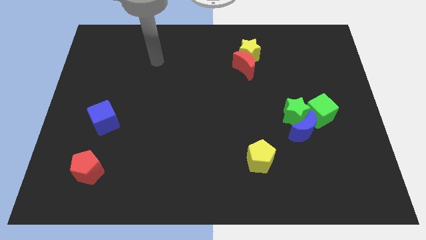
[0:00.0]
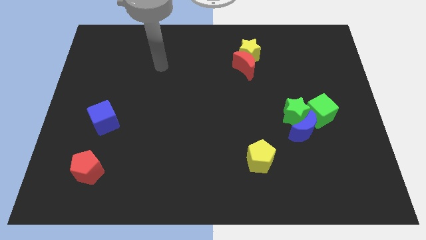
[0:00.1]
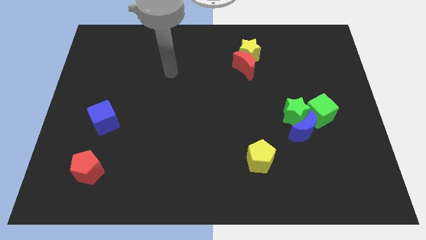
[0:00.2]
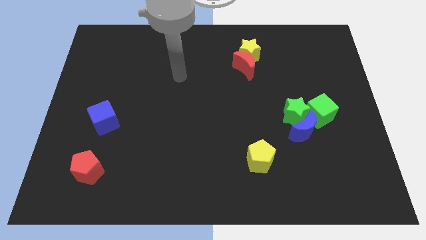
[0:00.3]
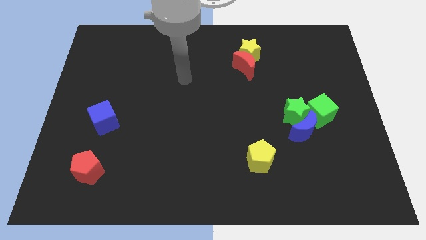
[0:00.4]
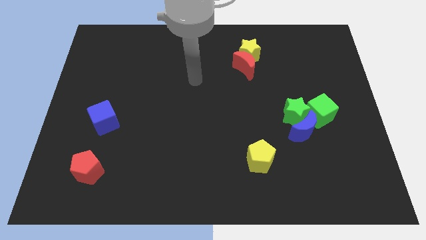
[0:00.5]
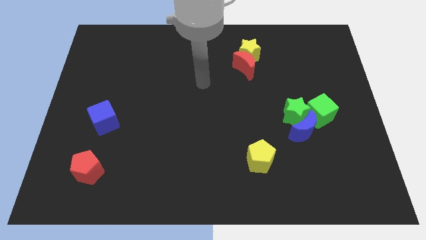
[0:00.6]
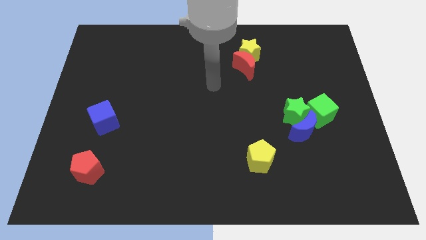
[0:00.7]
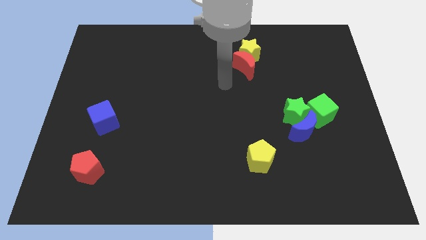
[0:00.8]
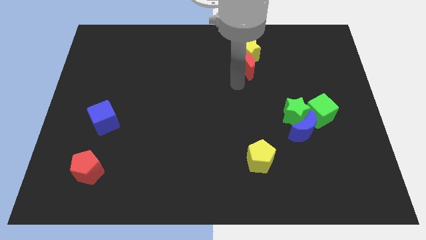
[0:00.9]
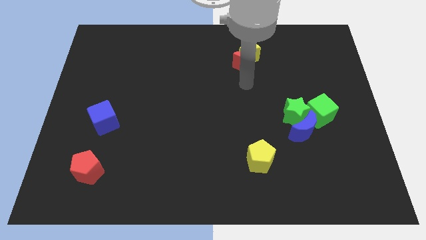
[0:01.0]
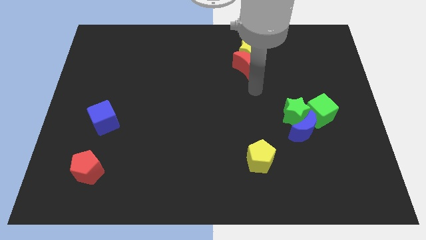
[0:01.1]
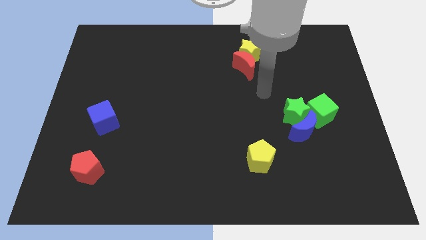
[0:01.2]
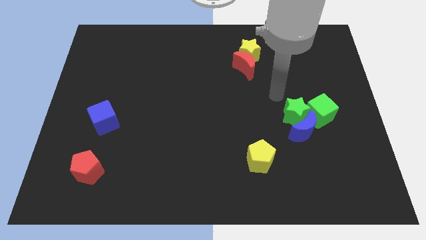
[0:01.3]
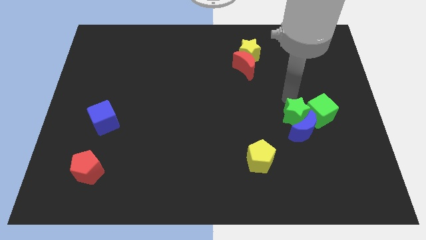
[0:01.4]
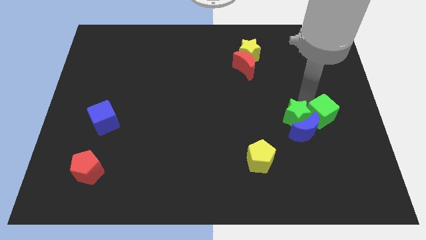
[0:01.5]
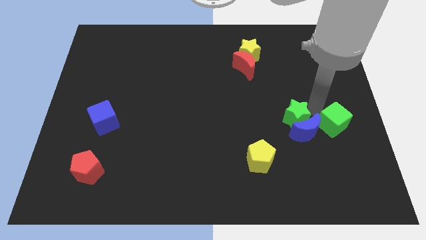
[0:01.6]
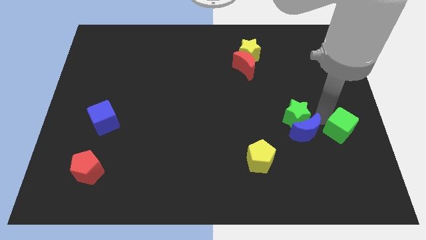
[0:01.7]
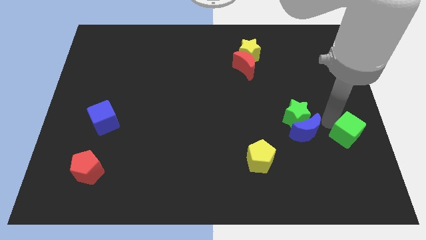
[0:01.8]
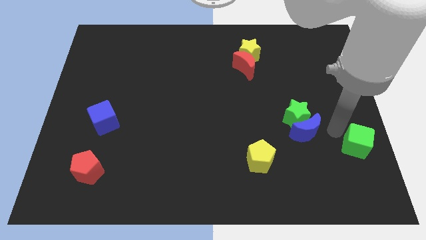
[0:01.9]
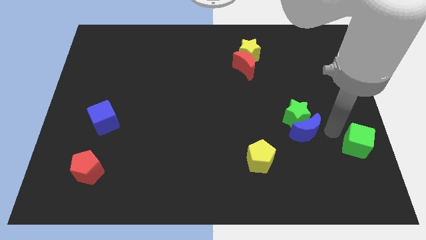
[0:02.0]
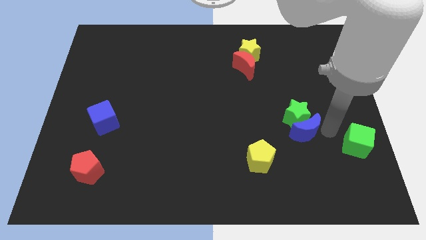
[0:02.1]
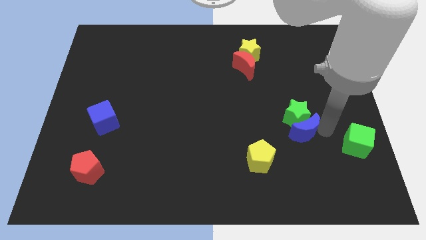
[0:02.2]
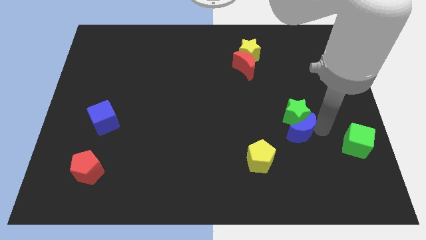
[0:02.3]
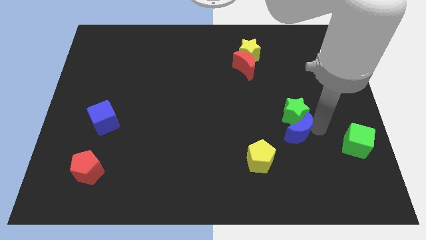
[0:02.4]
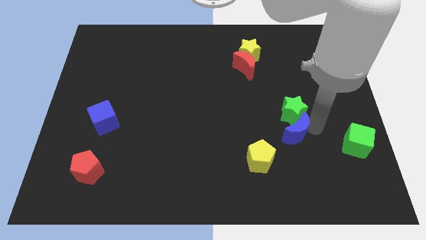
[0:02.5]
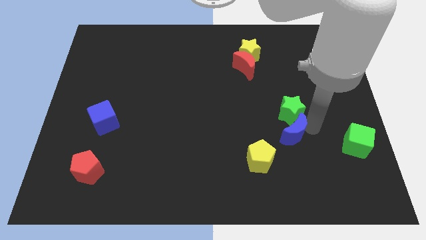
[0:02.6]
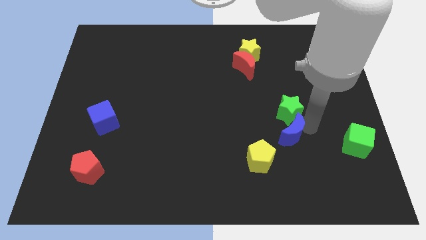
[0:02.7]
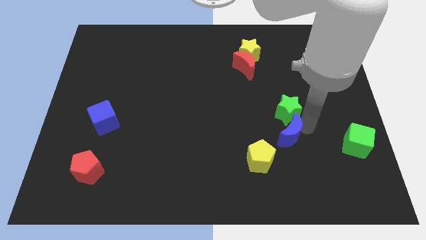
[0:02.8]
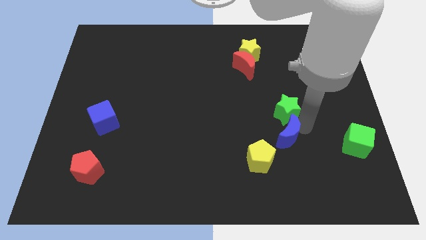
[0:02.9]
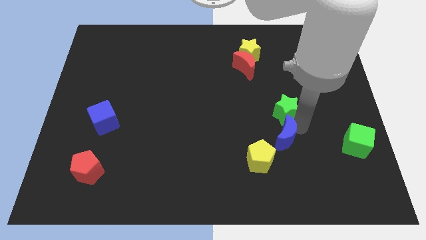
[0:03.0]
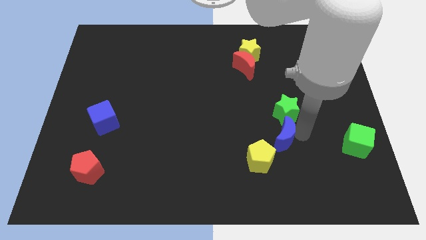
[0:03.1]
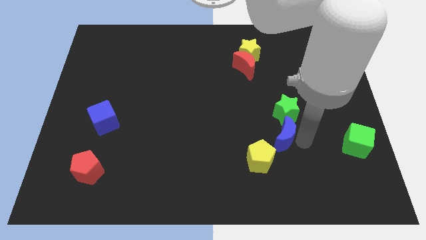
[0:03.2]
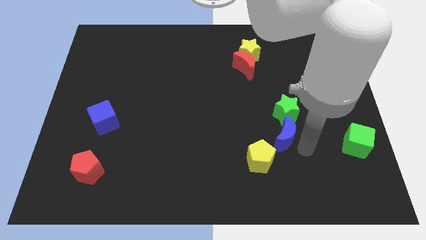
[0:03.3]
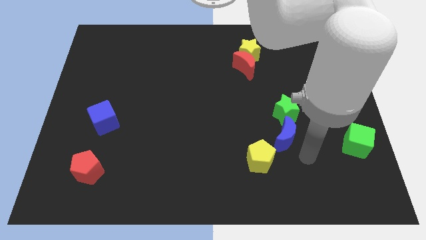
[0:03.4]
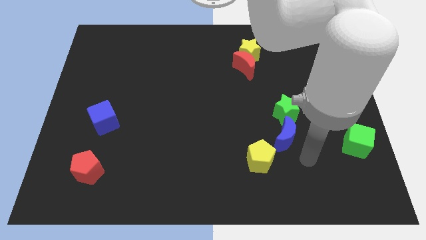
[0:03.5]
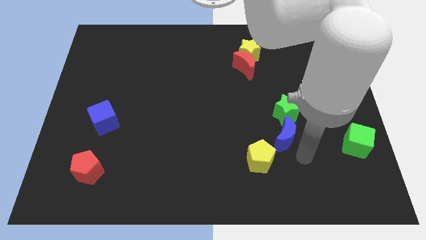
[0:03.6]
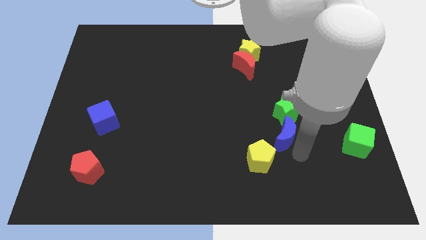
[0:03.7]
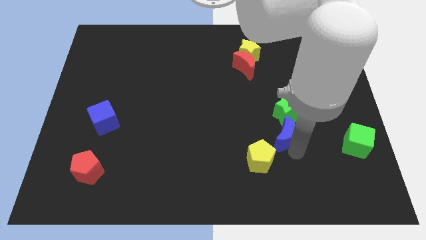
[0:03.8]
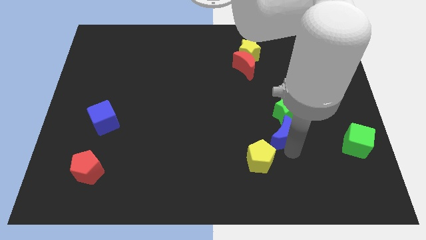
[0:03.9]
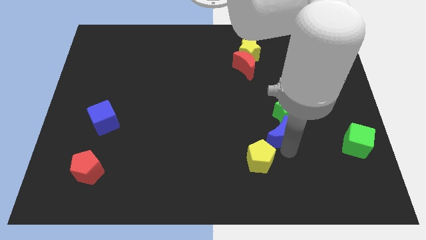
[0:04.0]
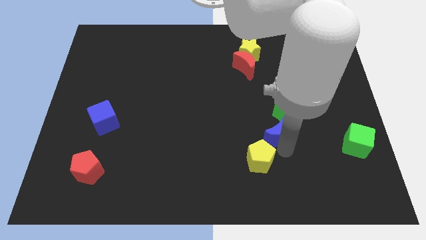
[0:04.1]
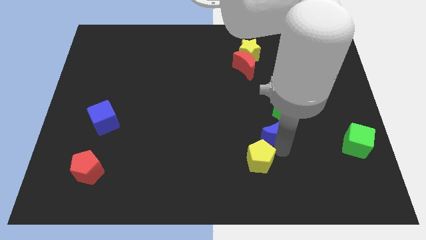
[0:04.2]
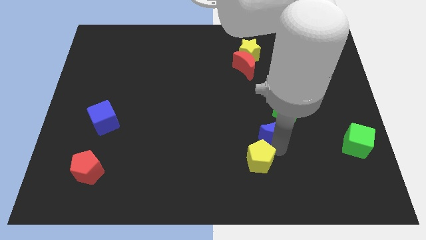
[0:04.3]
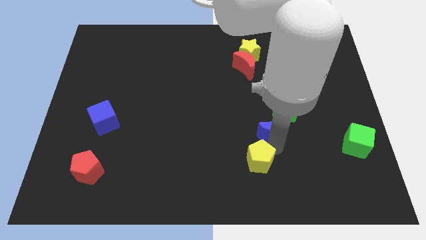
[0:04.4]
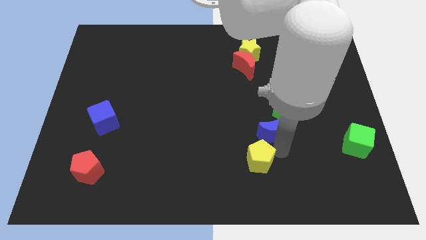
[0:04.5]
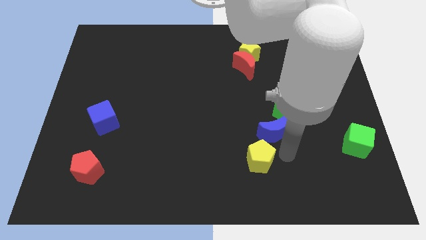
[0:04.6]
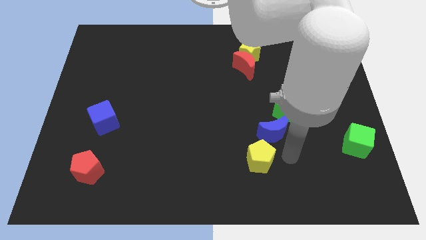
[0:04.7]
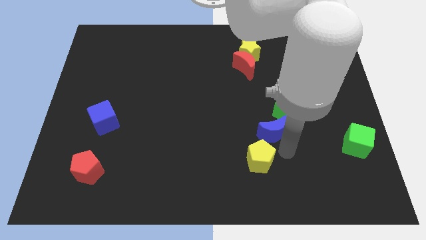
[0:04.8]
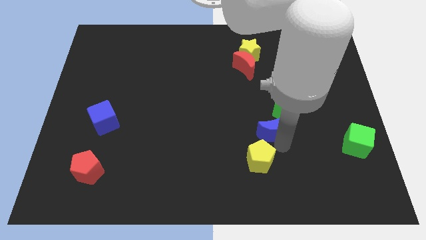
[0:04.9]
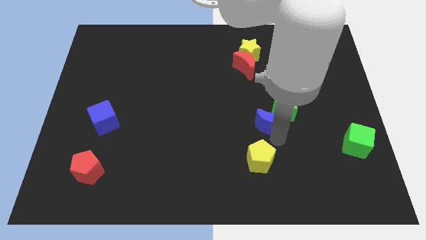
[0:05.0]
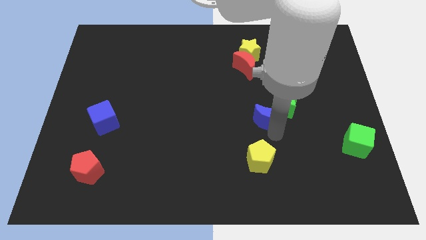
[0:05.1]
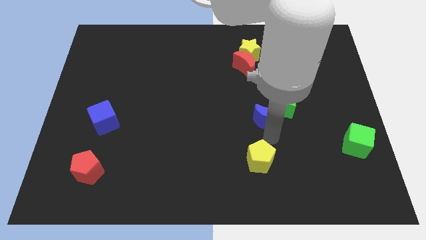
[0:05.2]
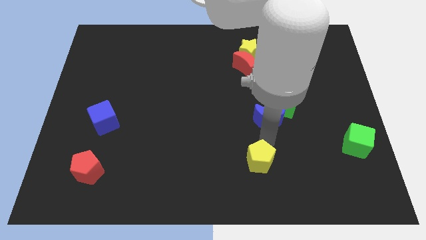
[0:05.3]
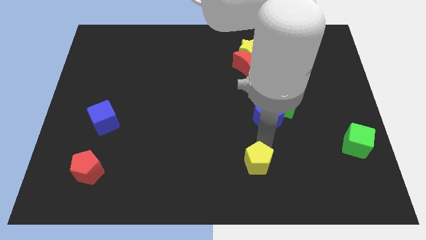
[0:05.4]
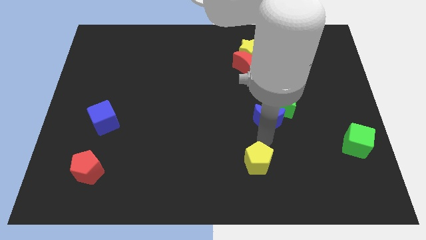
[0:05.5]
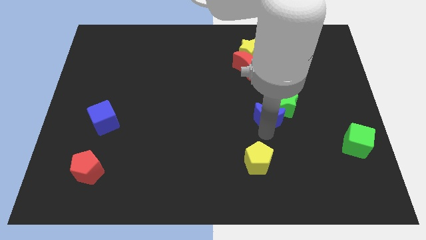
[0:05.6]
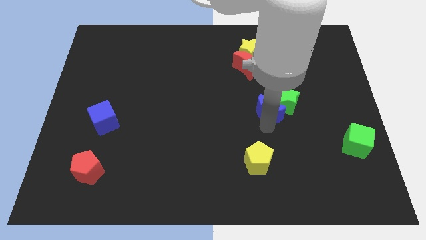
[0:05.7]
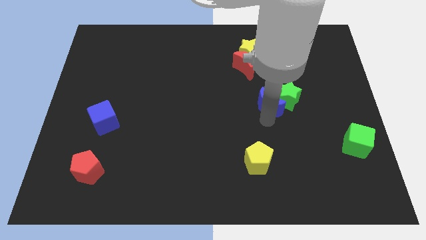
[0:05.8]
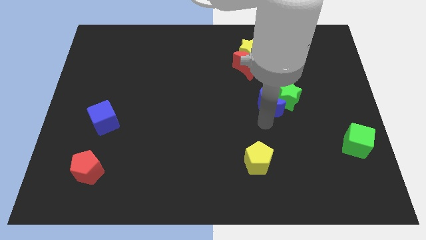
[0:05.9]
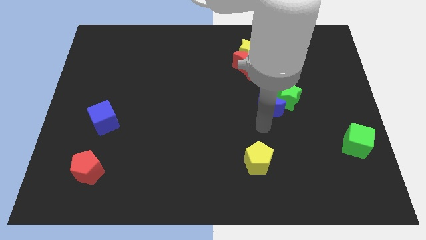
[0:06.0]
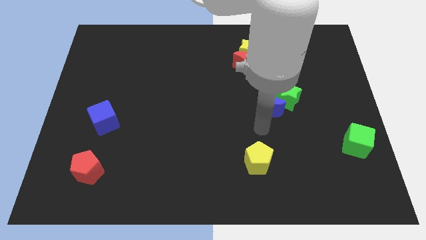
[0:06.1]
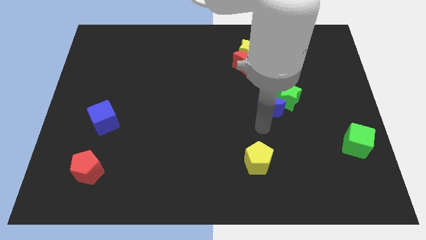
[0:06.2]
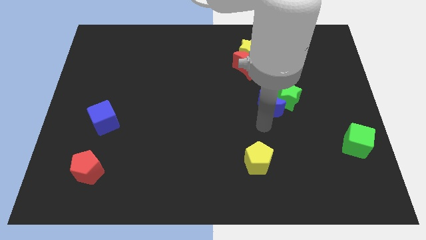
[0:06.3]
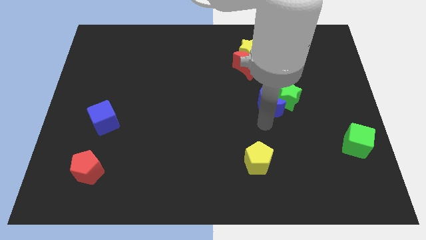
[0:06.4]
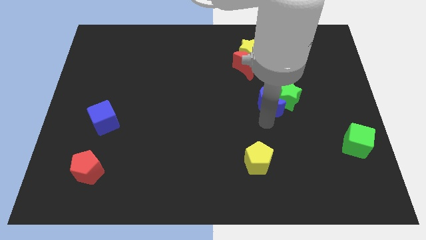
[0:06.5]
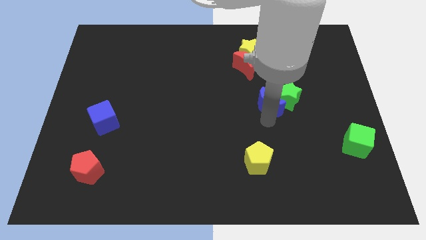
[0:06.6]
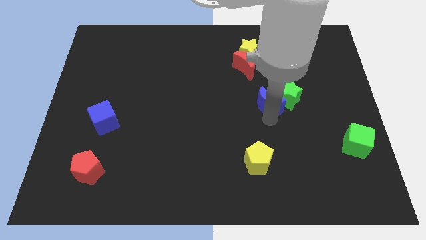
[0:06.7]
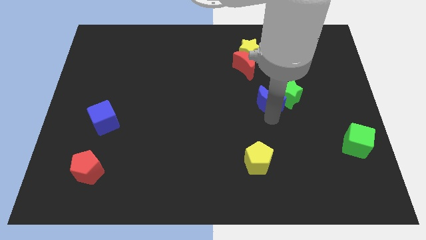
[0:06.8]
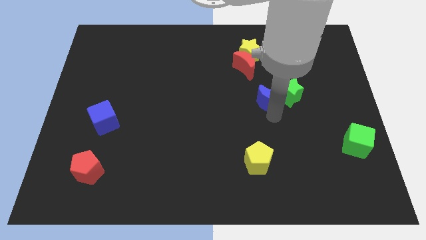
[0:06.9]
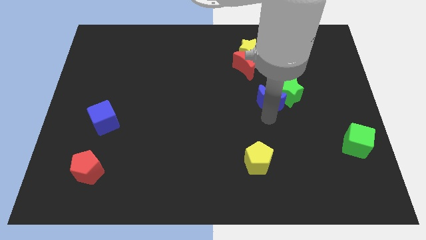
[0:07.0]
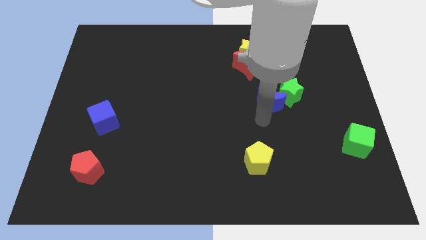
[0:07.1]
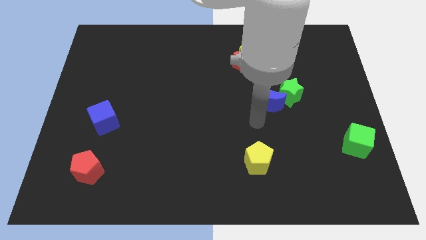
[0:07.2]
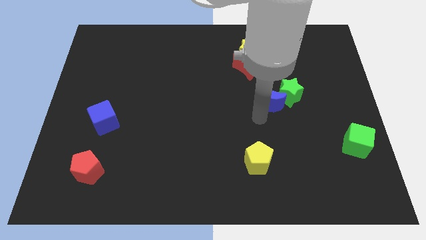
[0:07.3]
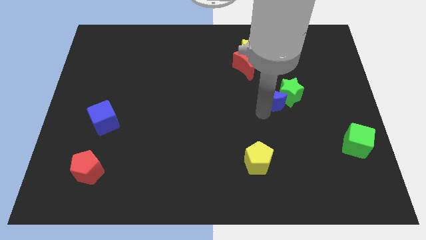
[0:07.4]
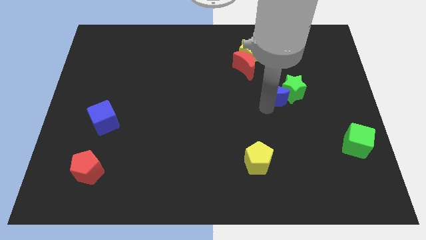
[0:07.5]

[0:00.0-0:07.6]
slide the blue moon a little bit upwards

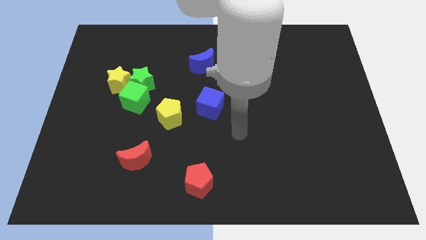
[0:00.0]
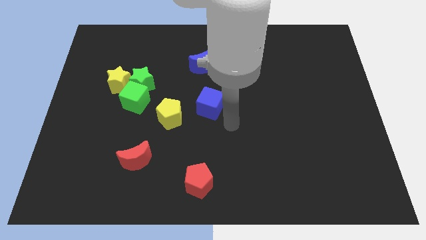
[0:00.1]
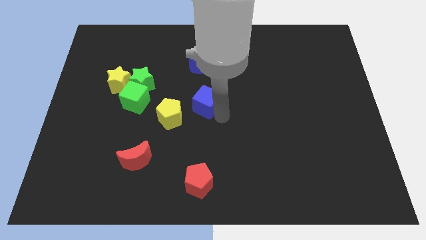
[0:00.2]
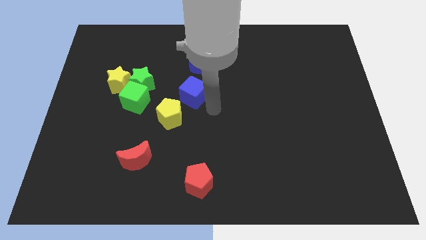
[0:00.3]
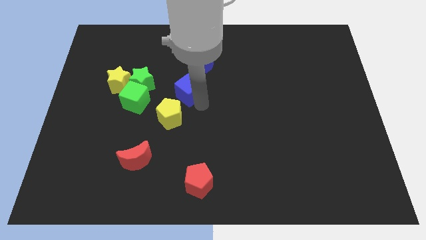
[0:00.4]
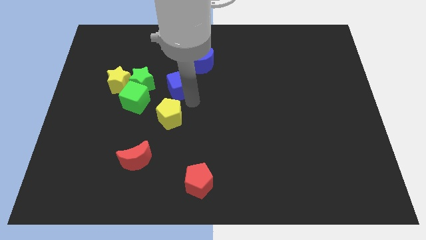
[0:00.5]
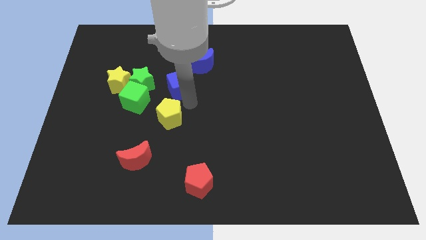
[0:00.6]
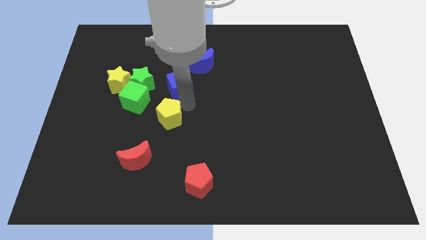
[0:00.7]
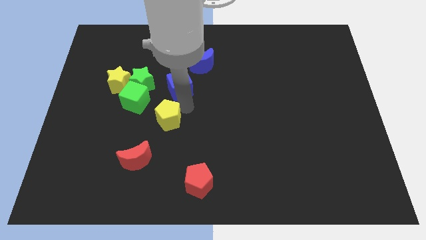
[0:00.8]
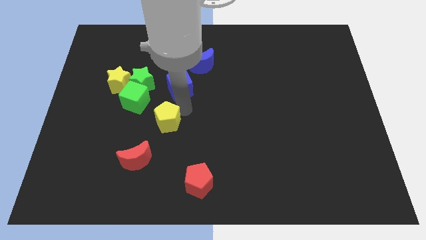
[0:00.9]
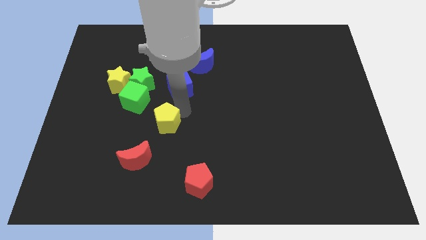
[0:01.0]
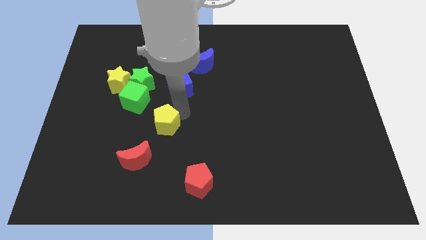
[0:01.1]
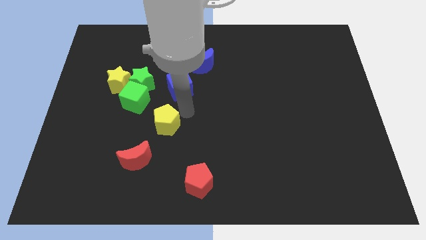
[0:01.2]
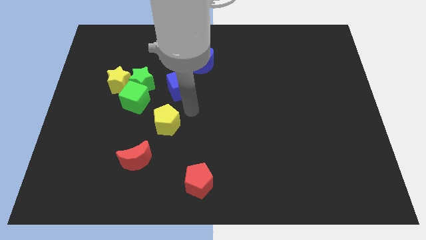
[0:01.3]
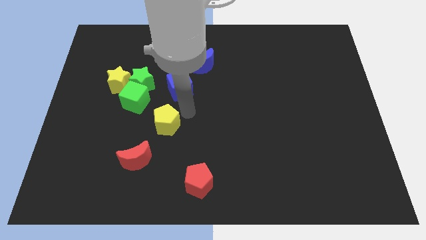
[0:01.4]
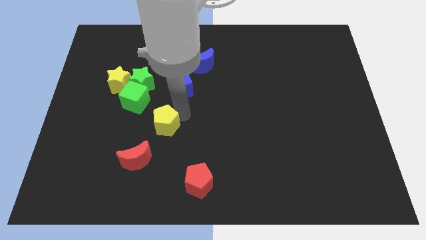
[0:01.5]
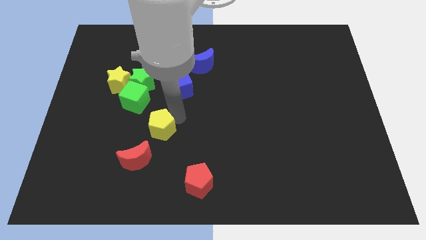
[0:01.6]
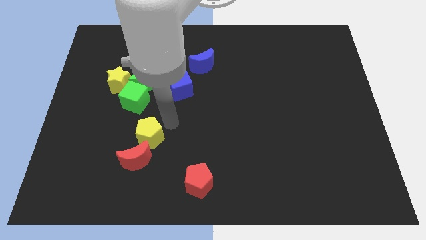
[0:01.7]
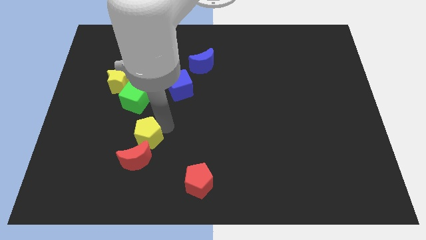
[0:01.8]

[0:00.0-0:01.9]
push the yellow pentagon diagonally downwards and to the left slightly
